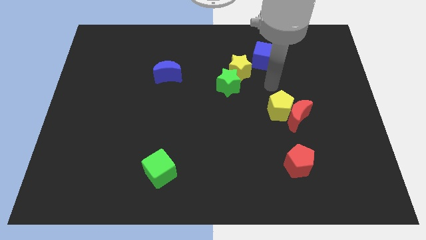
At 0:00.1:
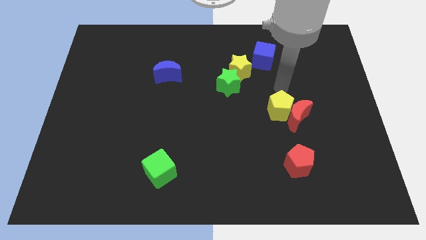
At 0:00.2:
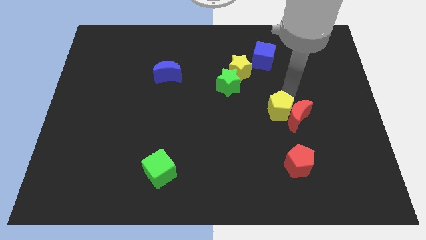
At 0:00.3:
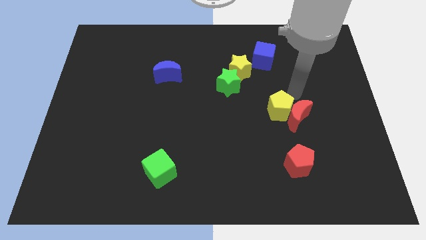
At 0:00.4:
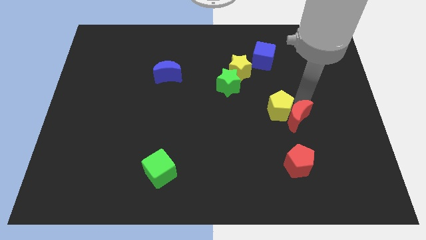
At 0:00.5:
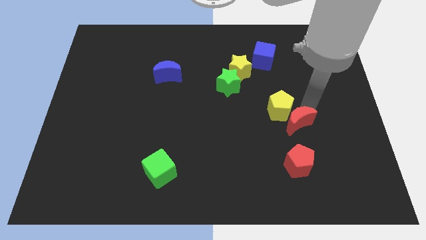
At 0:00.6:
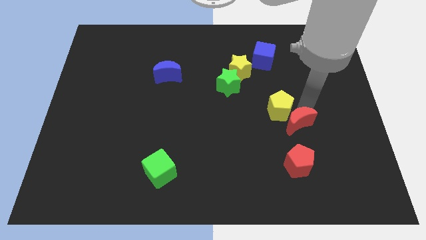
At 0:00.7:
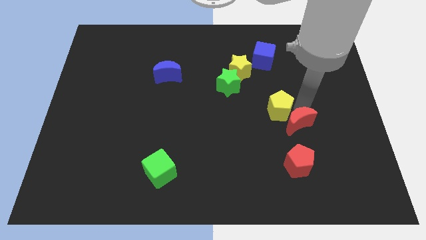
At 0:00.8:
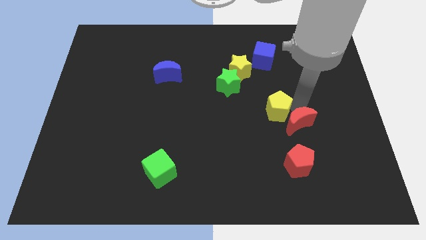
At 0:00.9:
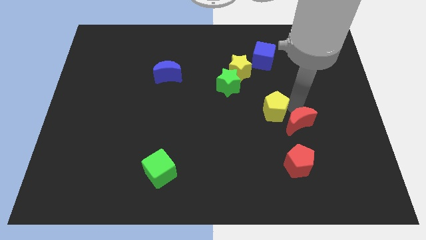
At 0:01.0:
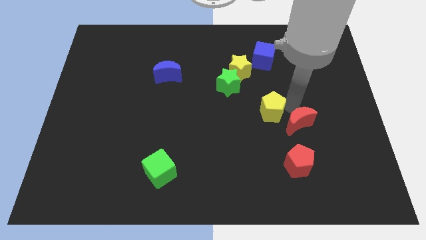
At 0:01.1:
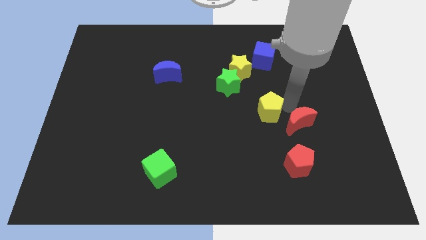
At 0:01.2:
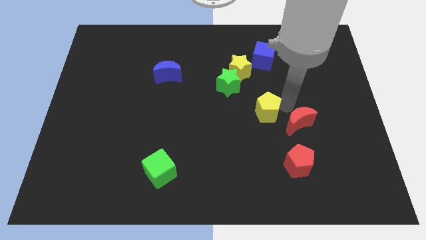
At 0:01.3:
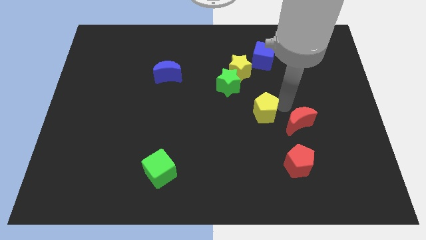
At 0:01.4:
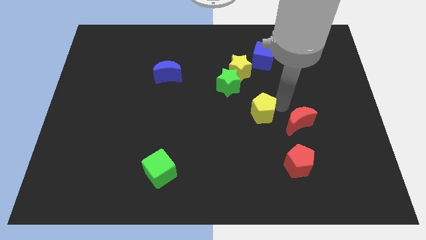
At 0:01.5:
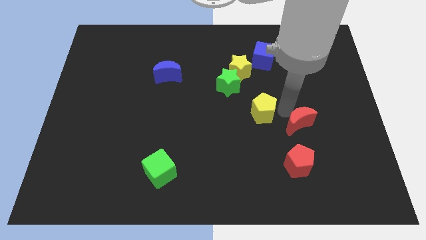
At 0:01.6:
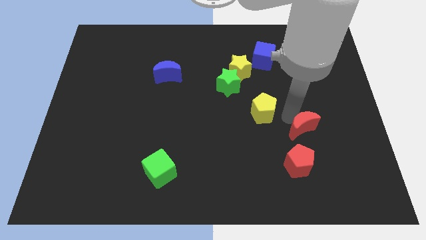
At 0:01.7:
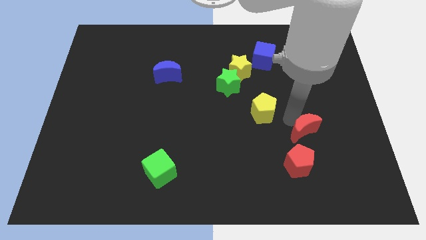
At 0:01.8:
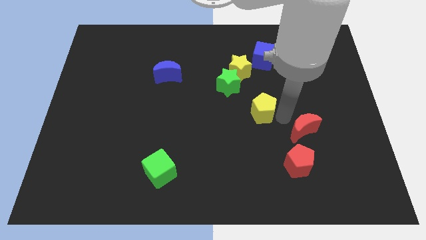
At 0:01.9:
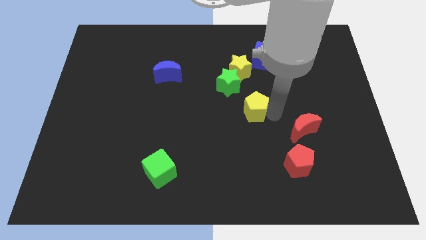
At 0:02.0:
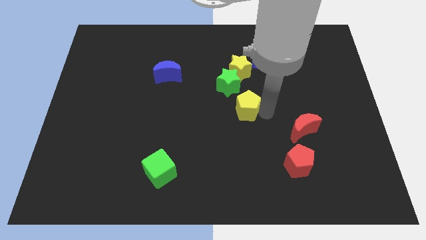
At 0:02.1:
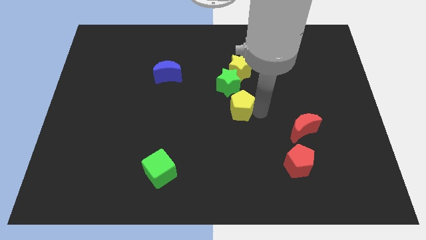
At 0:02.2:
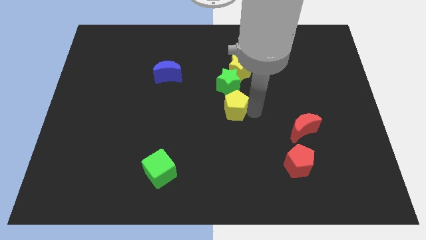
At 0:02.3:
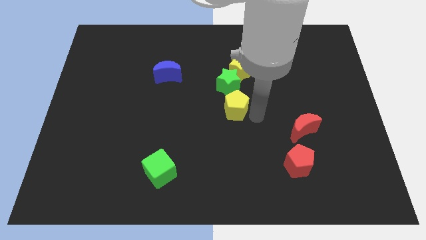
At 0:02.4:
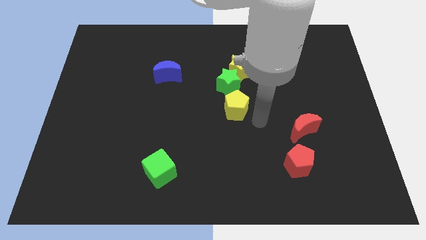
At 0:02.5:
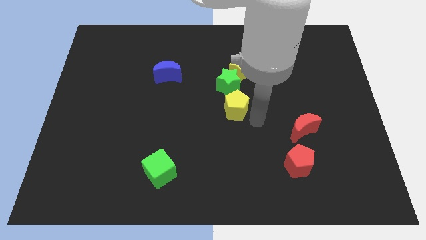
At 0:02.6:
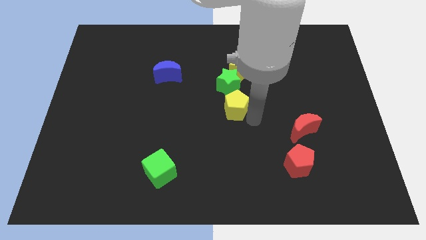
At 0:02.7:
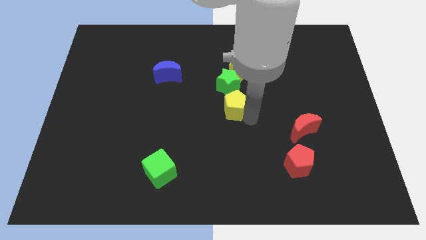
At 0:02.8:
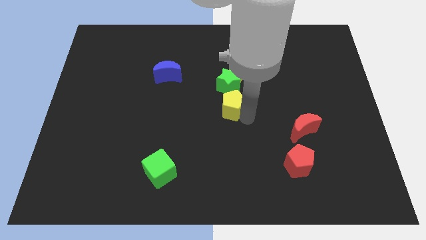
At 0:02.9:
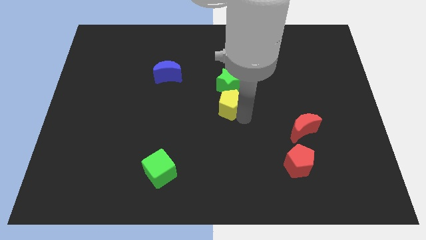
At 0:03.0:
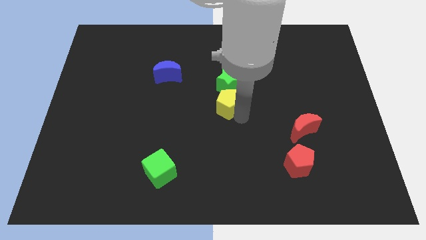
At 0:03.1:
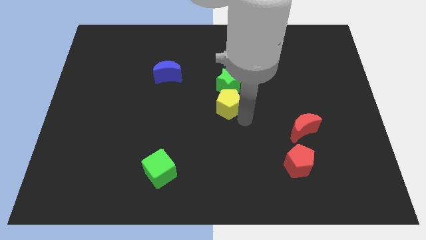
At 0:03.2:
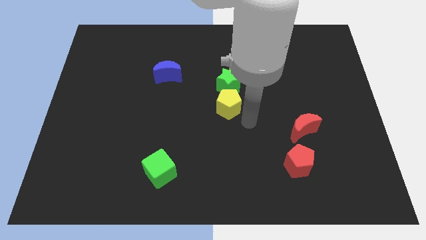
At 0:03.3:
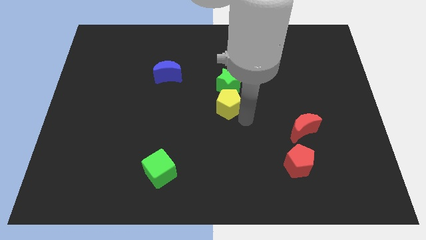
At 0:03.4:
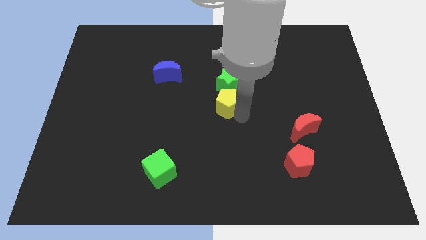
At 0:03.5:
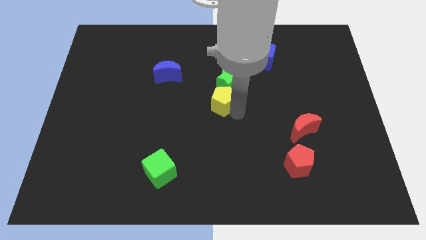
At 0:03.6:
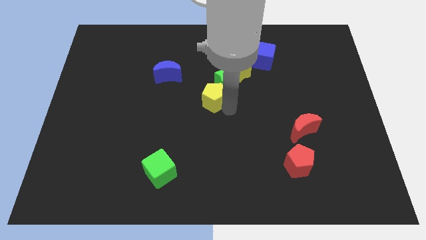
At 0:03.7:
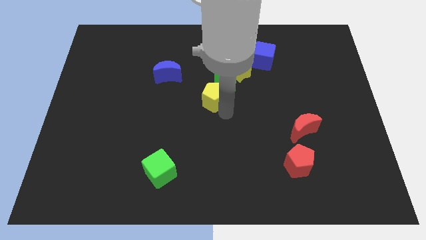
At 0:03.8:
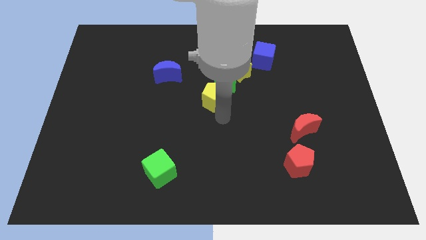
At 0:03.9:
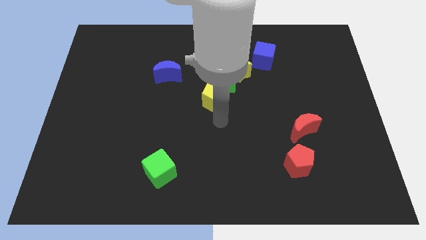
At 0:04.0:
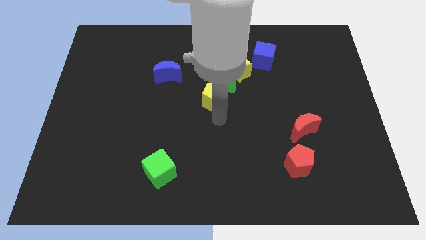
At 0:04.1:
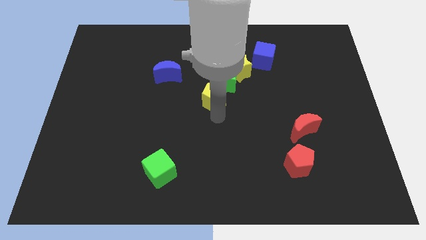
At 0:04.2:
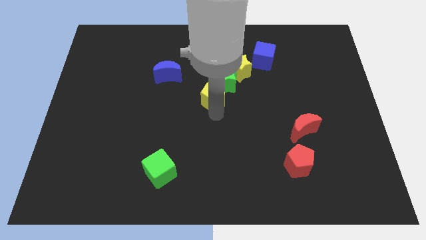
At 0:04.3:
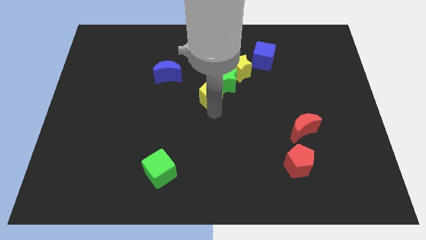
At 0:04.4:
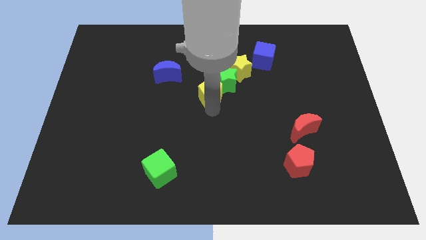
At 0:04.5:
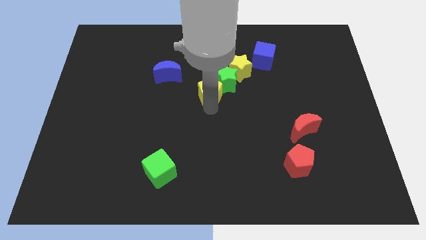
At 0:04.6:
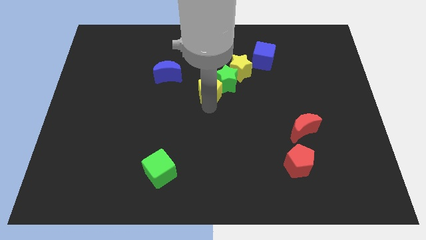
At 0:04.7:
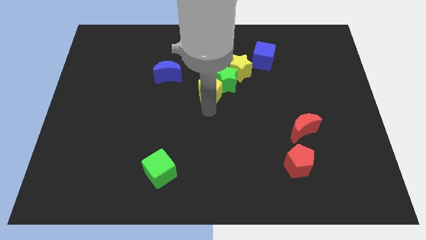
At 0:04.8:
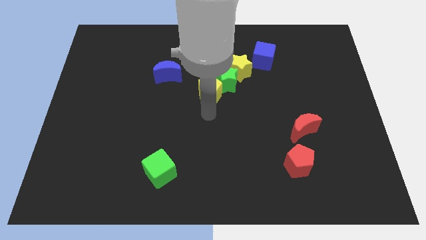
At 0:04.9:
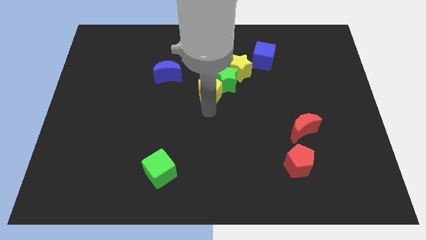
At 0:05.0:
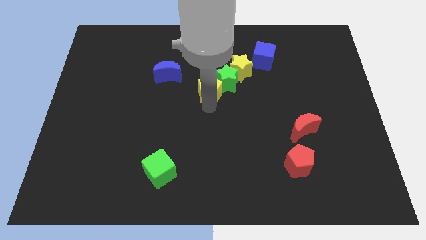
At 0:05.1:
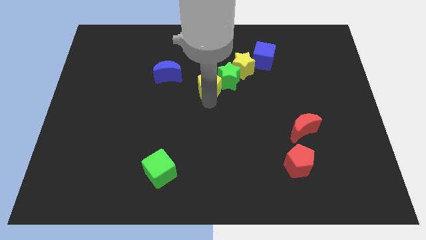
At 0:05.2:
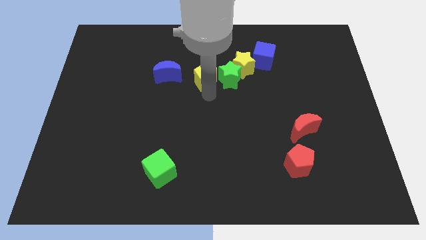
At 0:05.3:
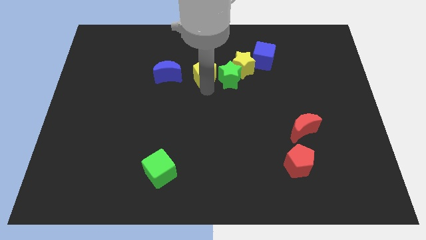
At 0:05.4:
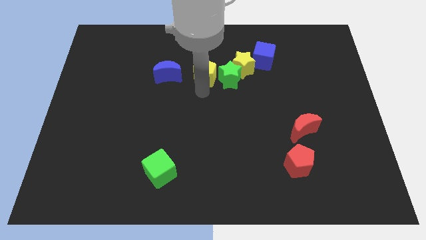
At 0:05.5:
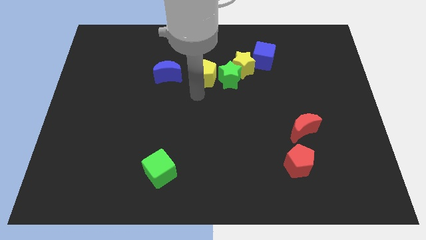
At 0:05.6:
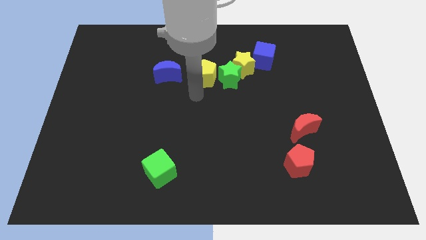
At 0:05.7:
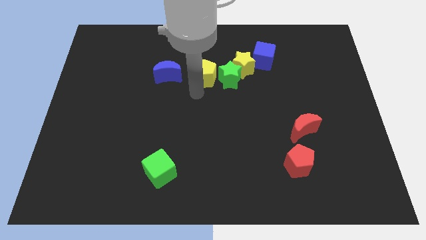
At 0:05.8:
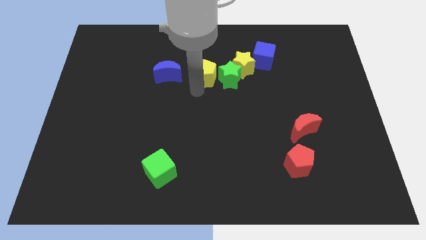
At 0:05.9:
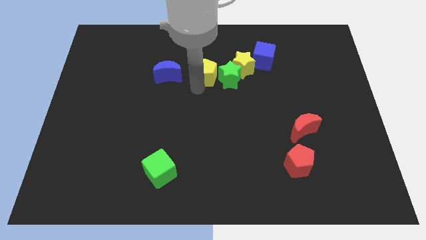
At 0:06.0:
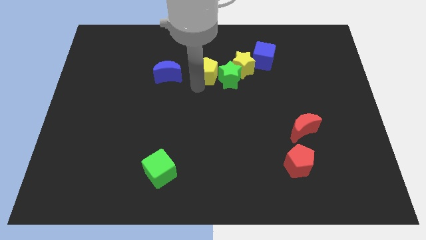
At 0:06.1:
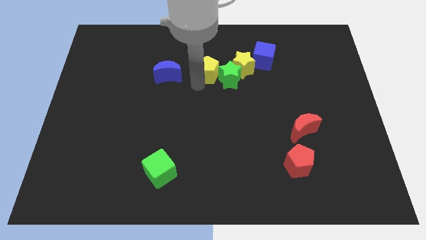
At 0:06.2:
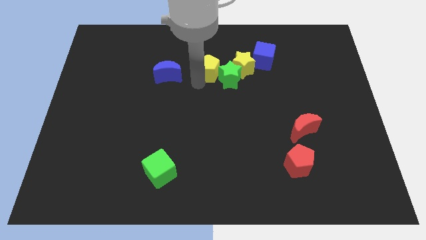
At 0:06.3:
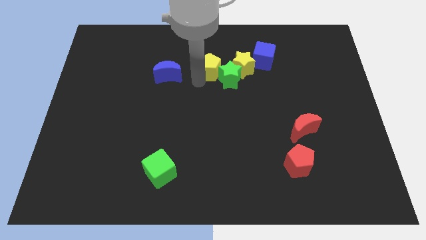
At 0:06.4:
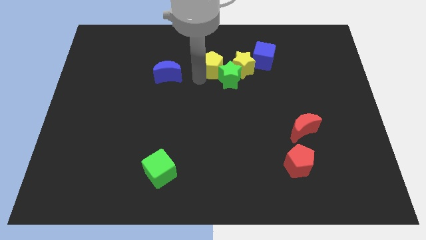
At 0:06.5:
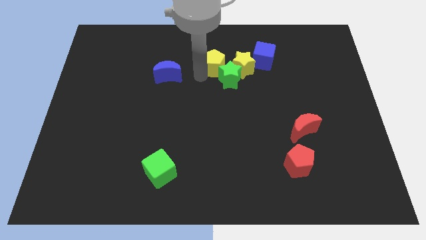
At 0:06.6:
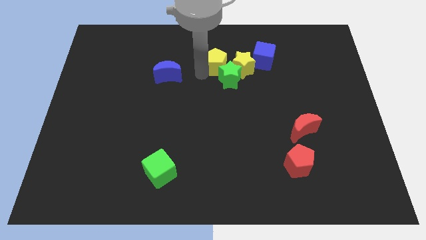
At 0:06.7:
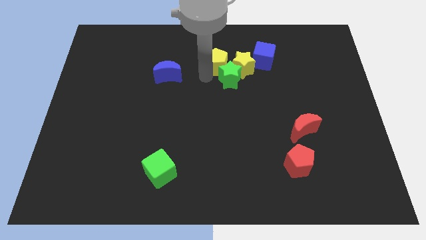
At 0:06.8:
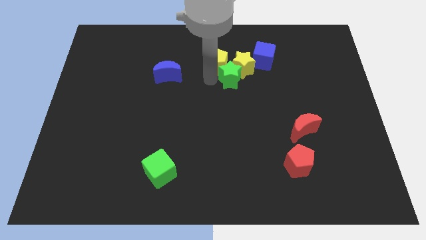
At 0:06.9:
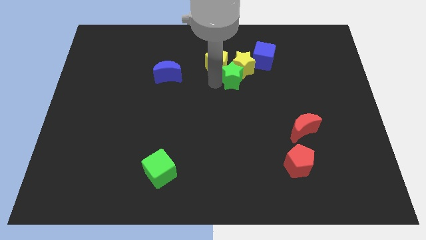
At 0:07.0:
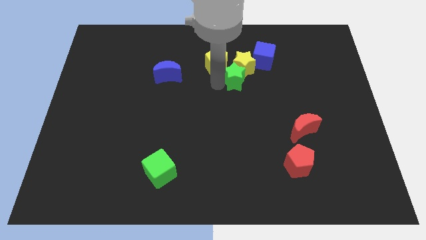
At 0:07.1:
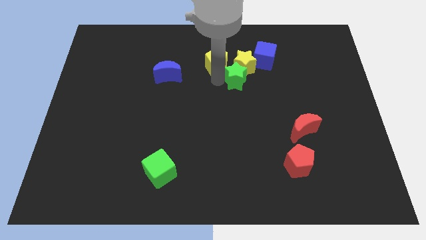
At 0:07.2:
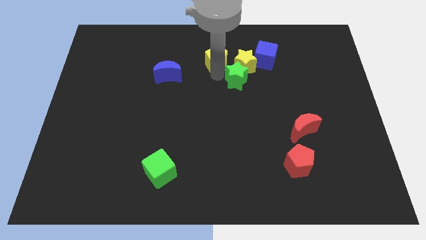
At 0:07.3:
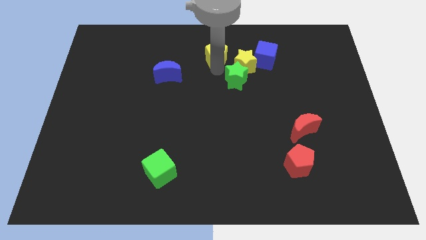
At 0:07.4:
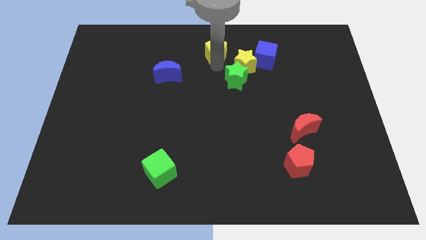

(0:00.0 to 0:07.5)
push the yellow pentagon to the towards your base
